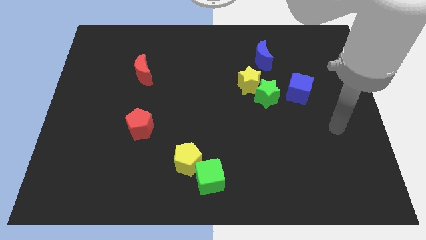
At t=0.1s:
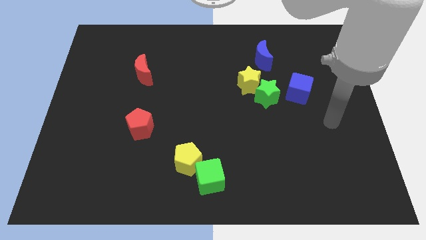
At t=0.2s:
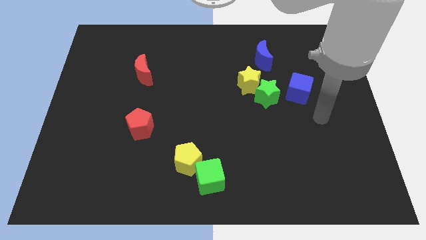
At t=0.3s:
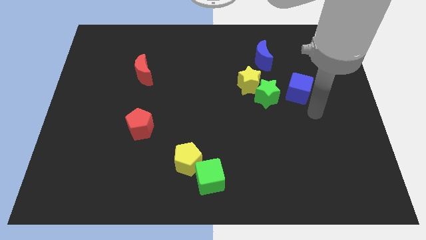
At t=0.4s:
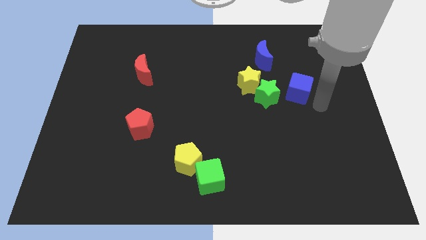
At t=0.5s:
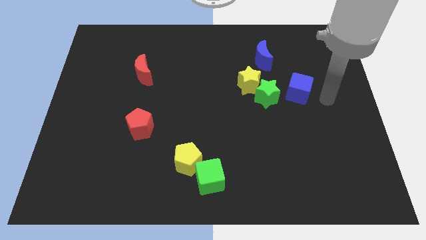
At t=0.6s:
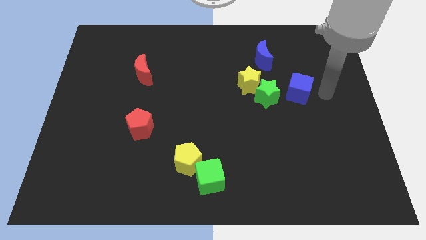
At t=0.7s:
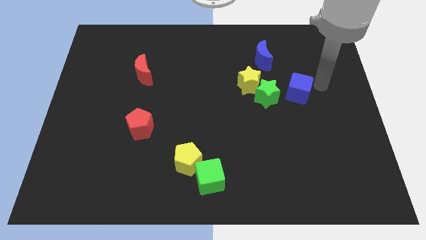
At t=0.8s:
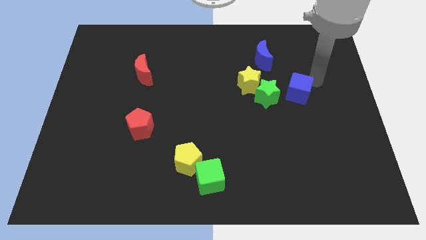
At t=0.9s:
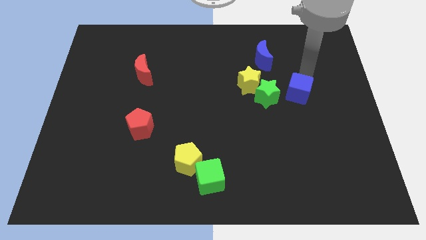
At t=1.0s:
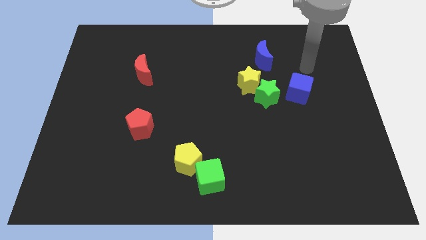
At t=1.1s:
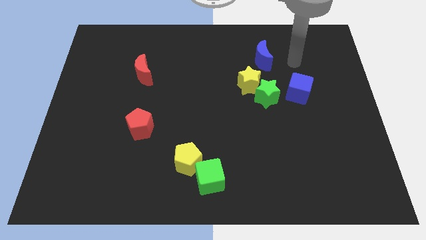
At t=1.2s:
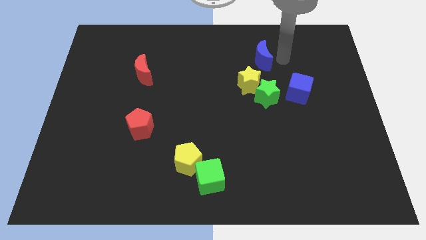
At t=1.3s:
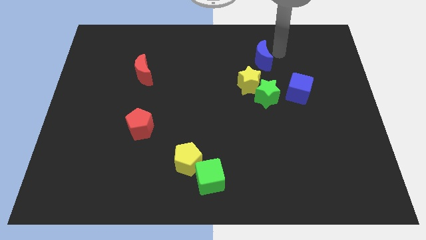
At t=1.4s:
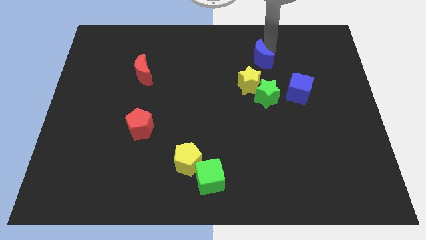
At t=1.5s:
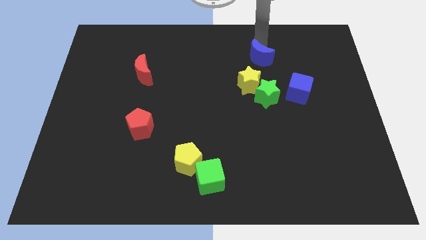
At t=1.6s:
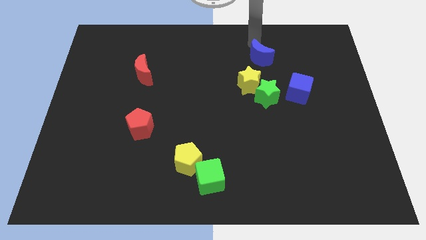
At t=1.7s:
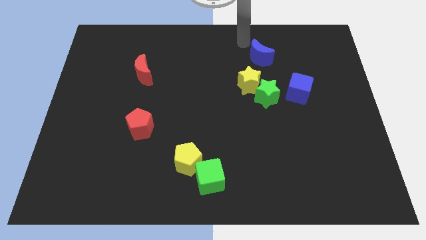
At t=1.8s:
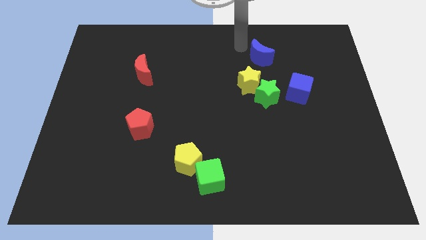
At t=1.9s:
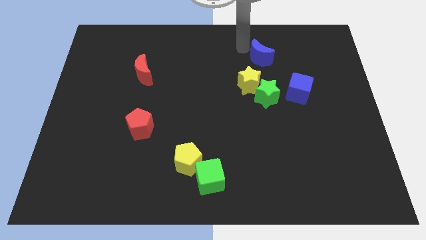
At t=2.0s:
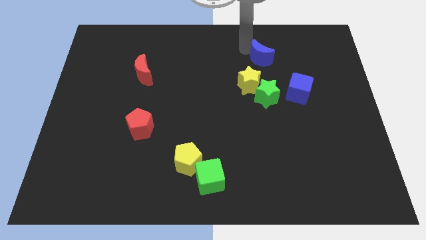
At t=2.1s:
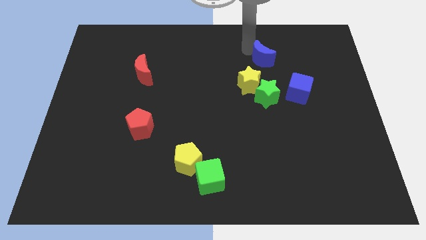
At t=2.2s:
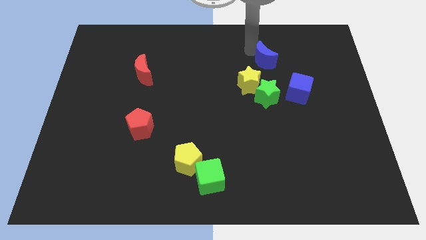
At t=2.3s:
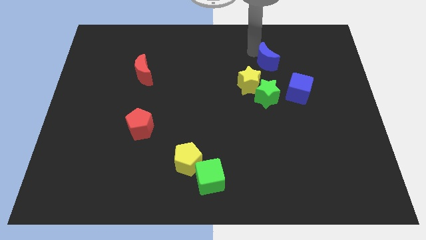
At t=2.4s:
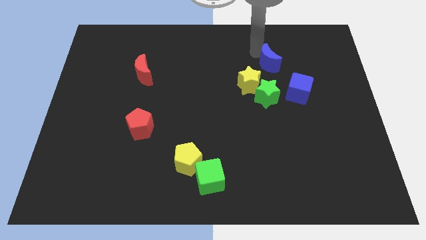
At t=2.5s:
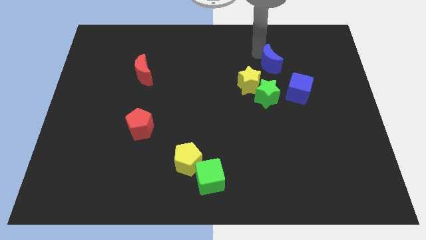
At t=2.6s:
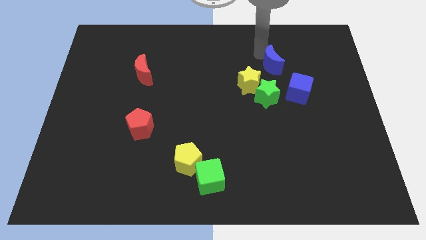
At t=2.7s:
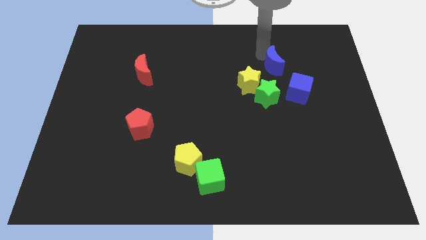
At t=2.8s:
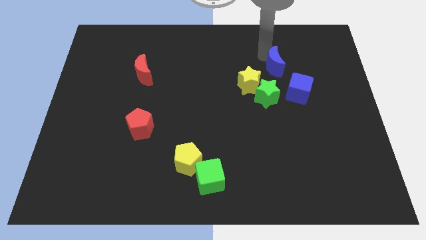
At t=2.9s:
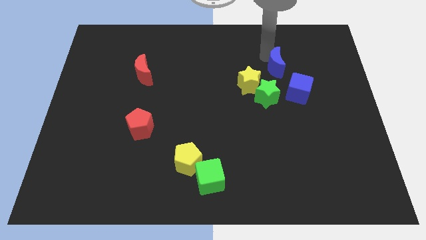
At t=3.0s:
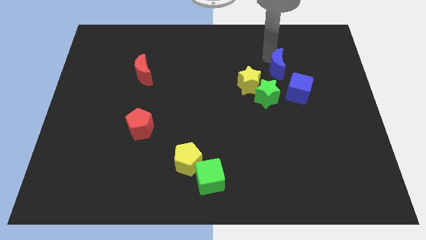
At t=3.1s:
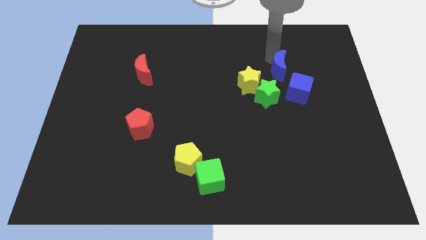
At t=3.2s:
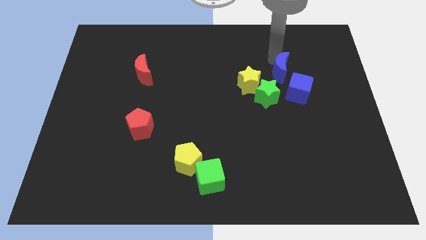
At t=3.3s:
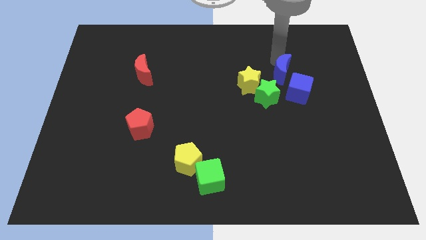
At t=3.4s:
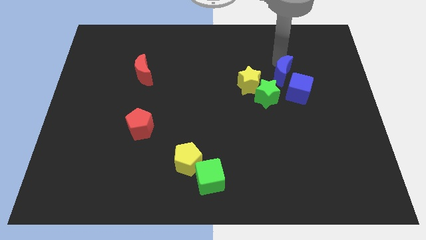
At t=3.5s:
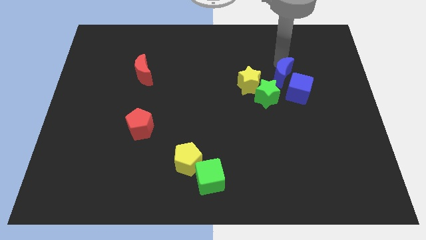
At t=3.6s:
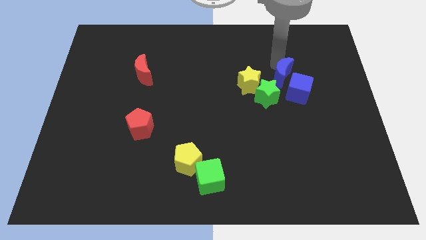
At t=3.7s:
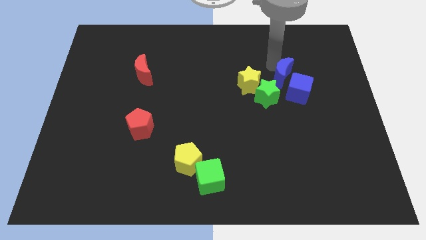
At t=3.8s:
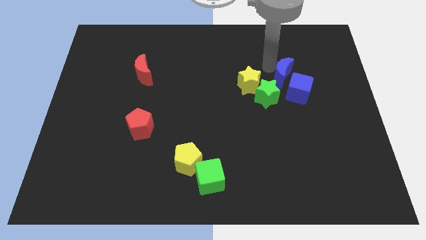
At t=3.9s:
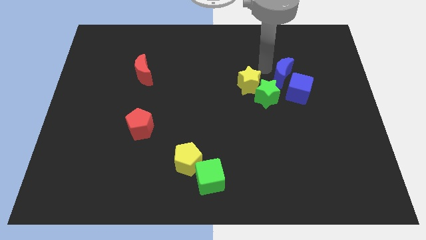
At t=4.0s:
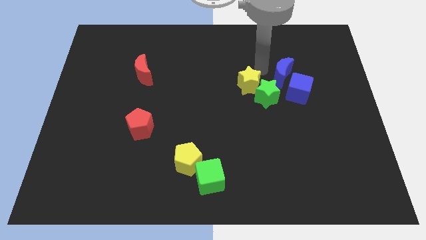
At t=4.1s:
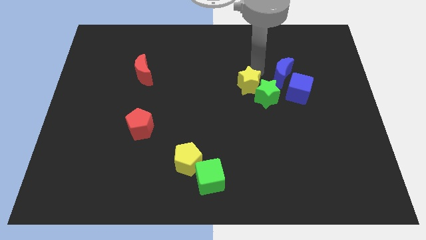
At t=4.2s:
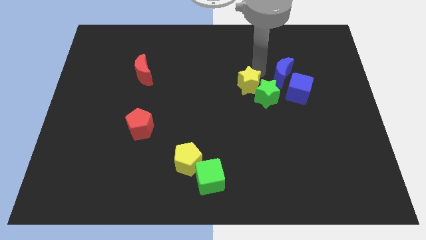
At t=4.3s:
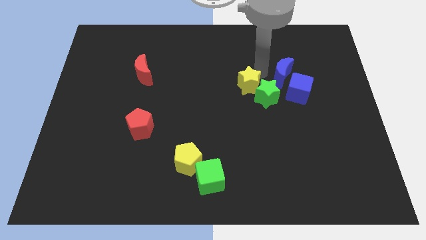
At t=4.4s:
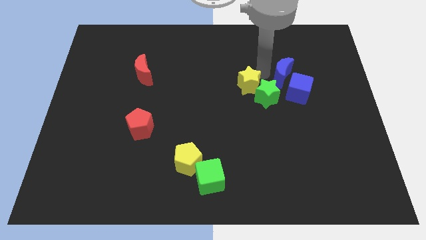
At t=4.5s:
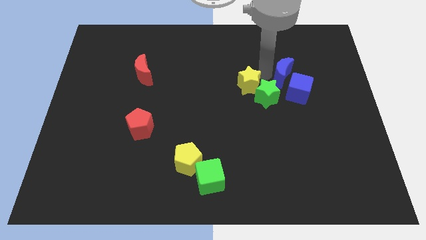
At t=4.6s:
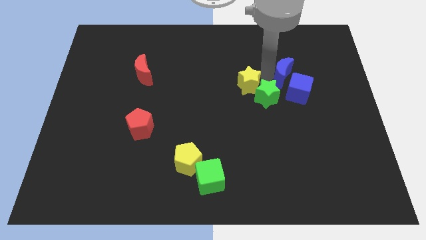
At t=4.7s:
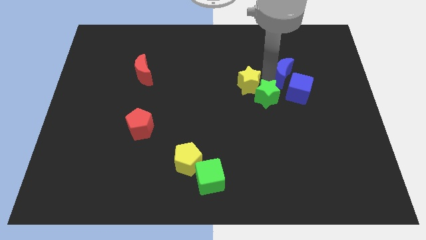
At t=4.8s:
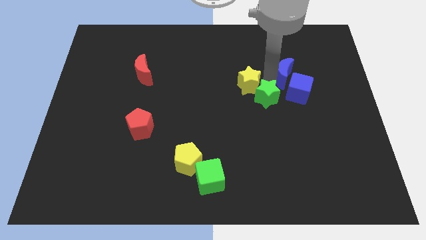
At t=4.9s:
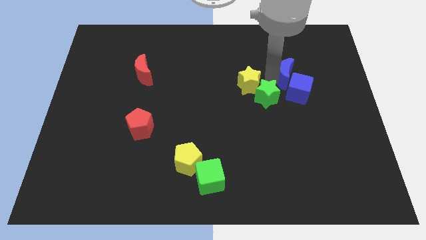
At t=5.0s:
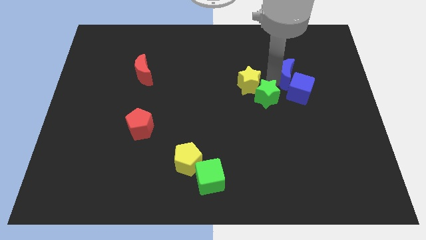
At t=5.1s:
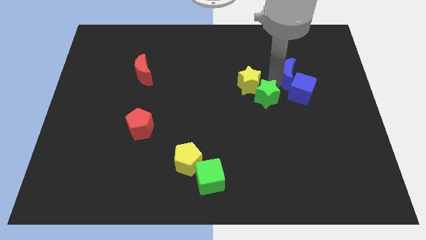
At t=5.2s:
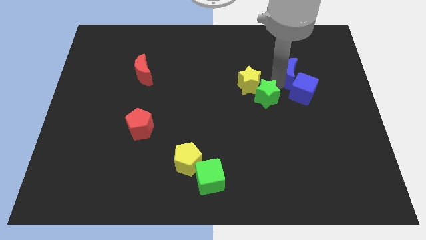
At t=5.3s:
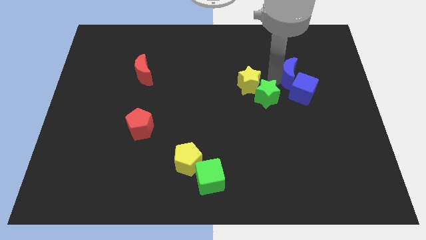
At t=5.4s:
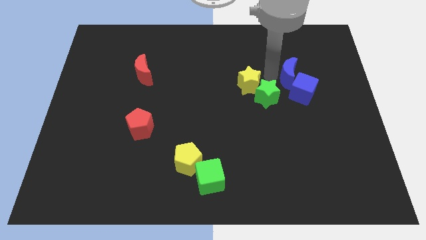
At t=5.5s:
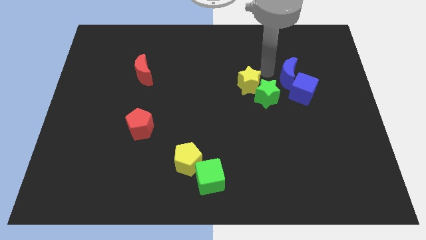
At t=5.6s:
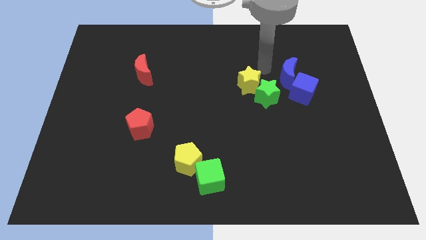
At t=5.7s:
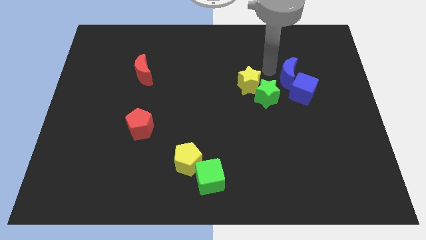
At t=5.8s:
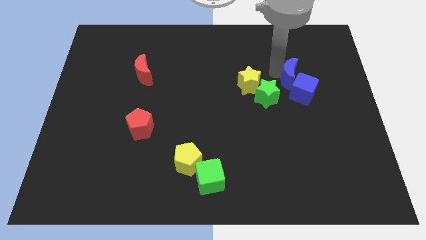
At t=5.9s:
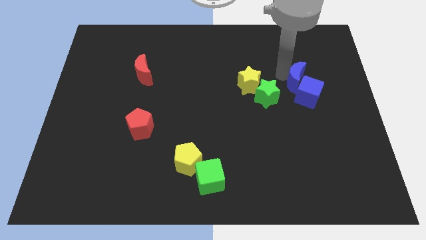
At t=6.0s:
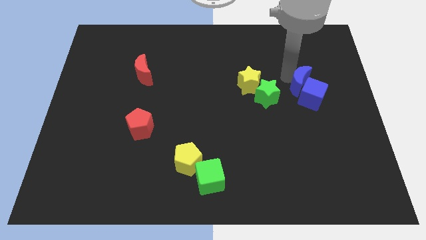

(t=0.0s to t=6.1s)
put the blue moon to the right of the green star

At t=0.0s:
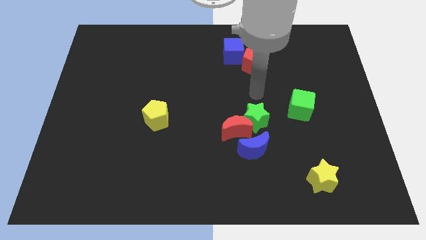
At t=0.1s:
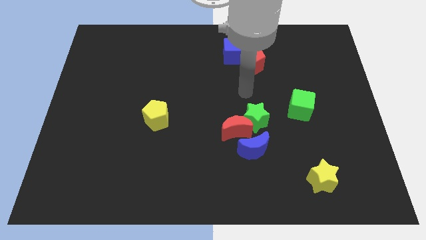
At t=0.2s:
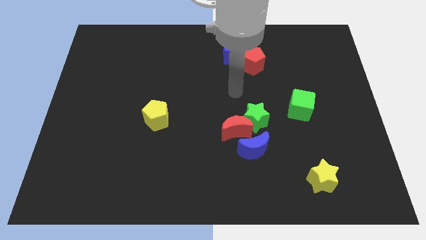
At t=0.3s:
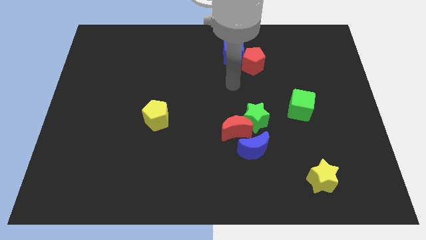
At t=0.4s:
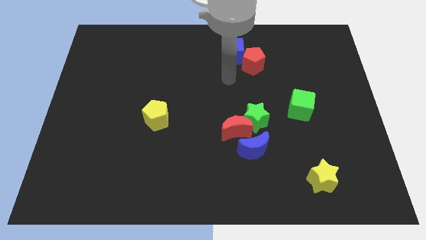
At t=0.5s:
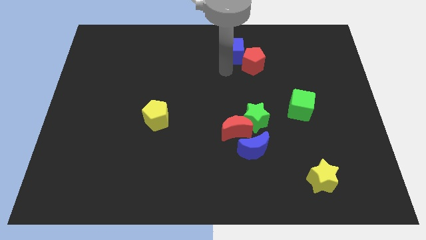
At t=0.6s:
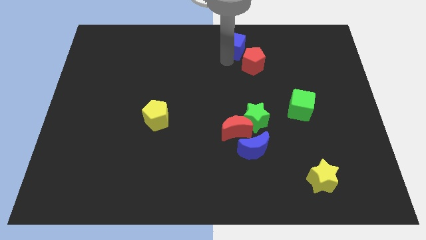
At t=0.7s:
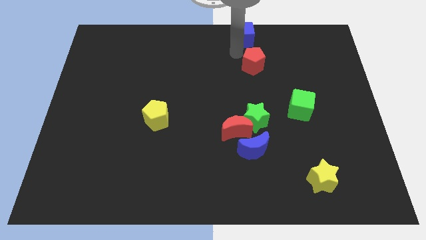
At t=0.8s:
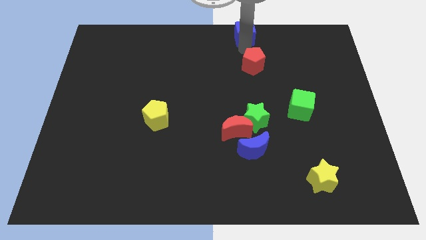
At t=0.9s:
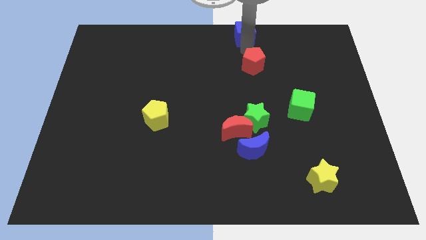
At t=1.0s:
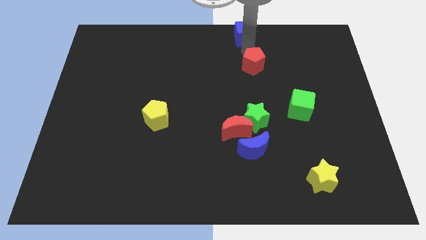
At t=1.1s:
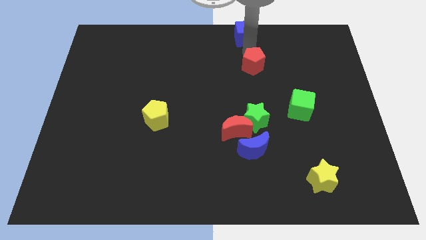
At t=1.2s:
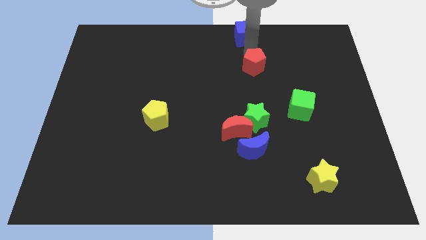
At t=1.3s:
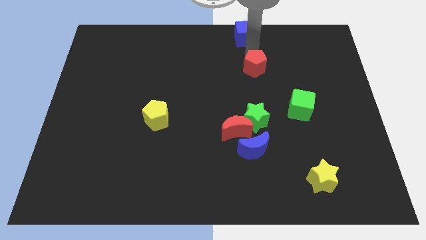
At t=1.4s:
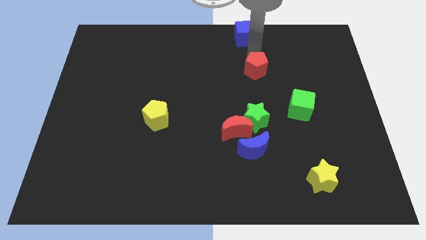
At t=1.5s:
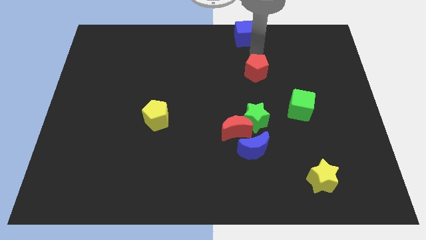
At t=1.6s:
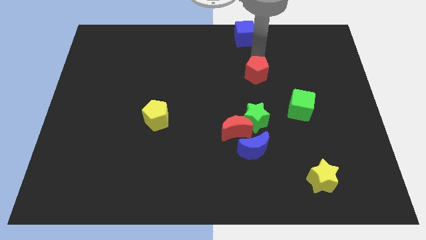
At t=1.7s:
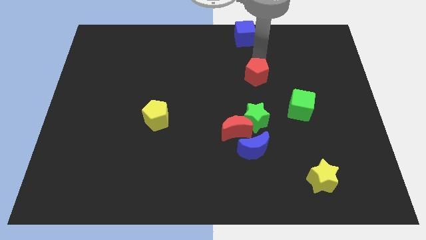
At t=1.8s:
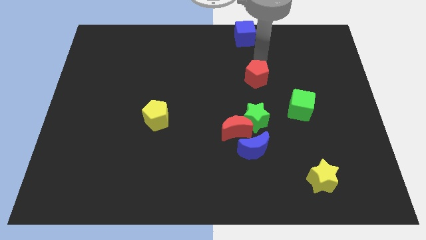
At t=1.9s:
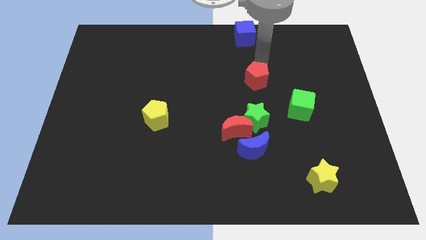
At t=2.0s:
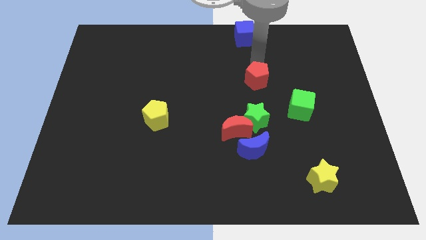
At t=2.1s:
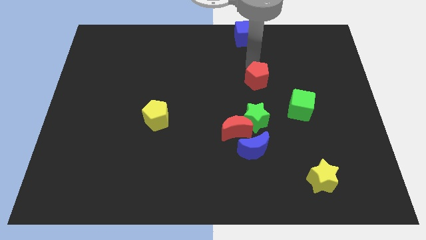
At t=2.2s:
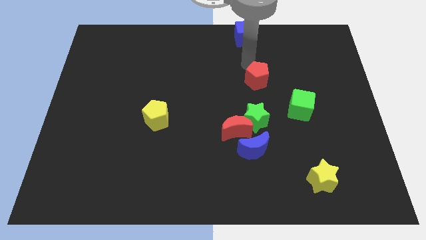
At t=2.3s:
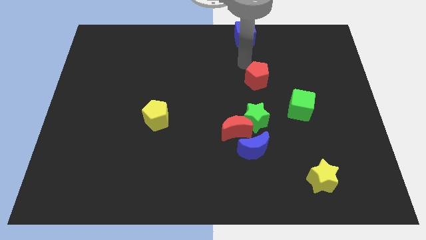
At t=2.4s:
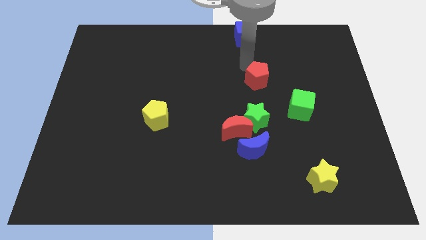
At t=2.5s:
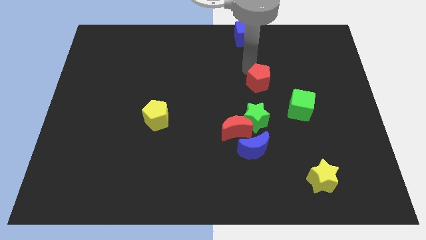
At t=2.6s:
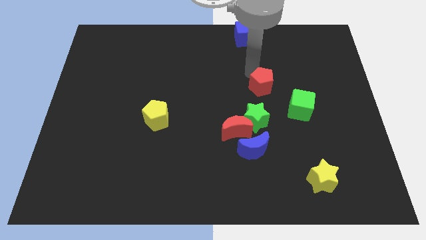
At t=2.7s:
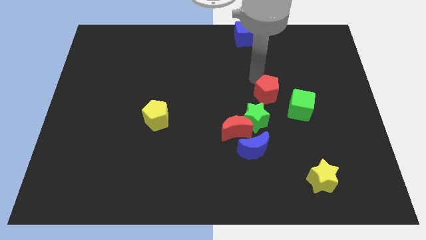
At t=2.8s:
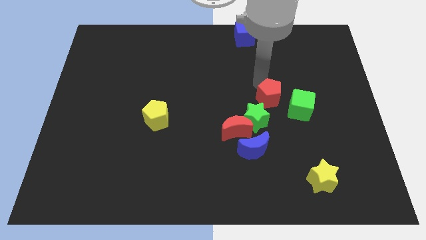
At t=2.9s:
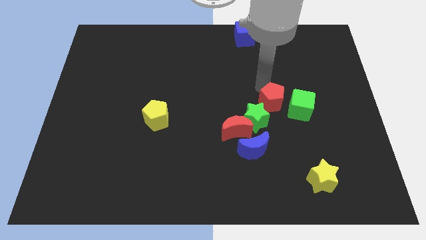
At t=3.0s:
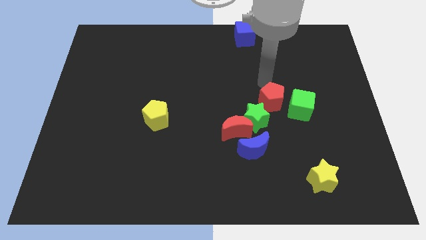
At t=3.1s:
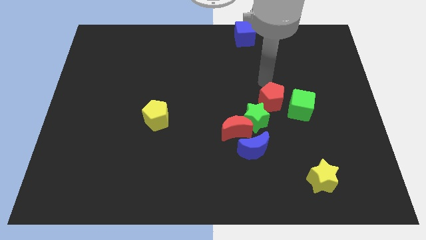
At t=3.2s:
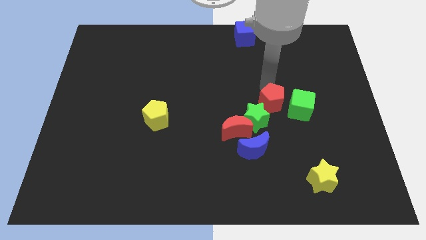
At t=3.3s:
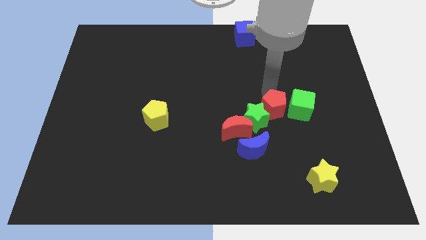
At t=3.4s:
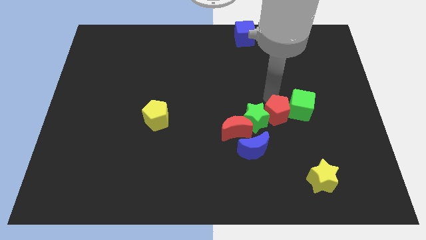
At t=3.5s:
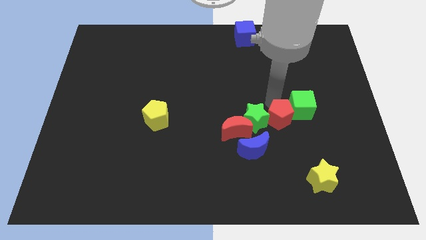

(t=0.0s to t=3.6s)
move the red pentagon to the bottom right side of the green star
